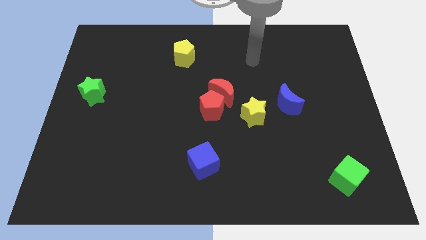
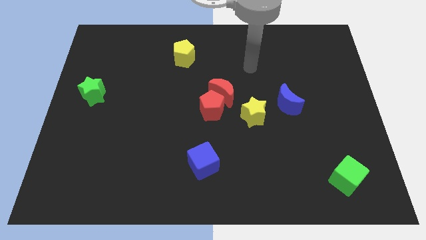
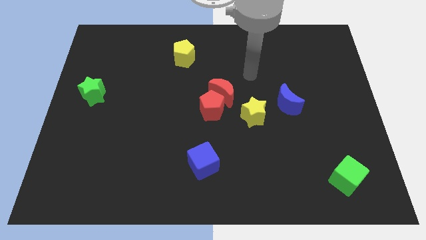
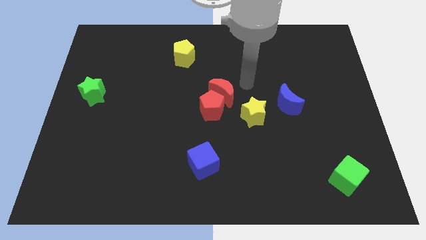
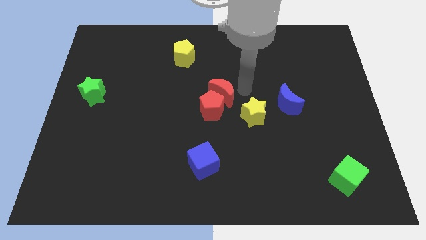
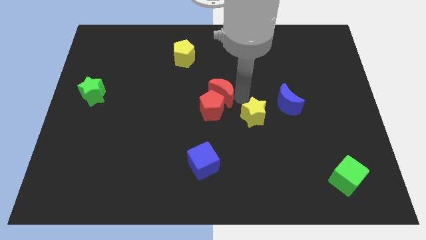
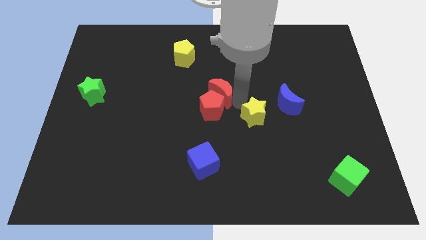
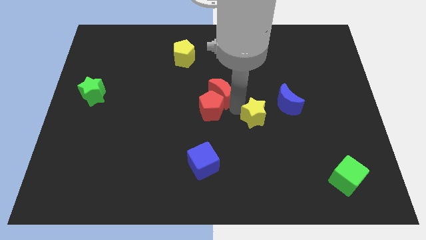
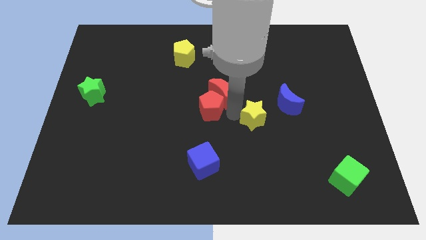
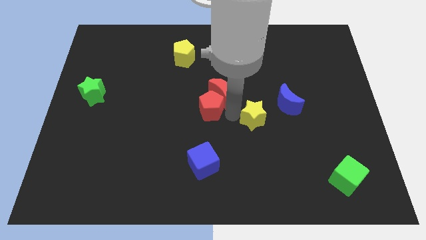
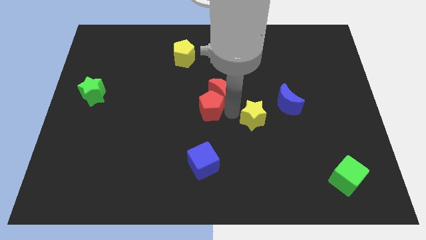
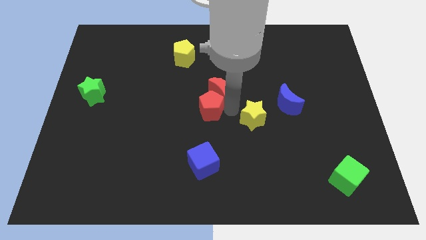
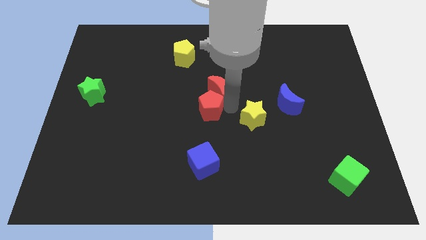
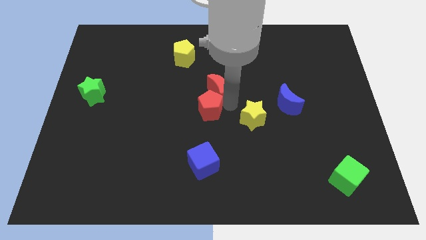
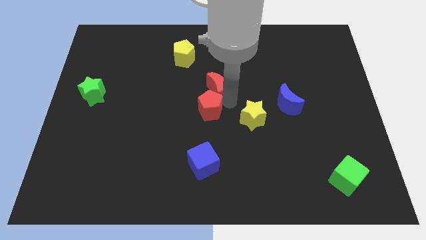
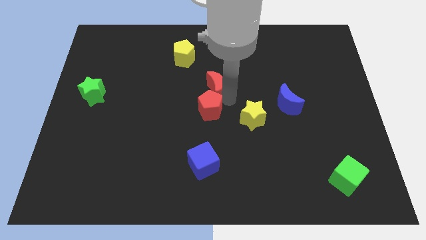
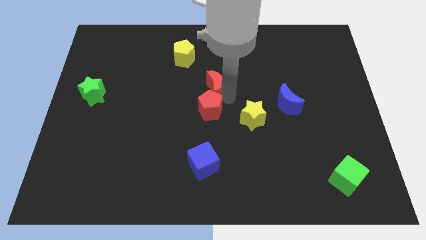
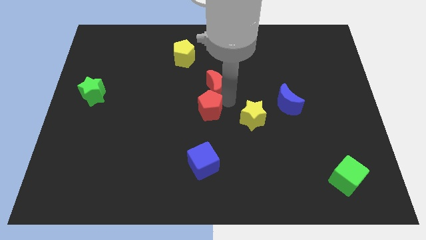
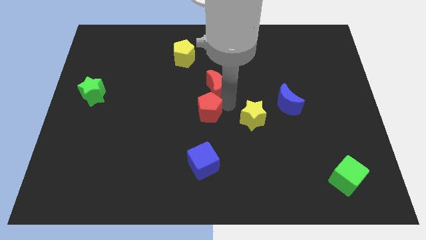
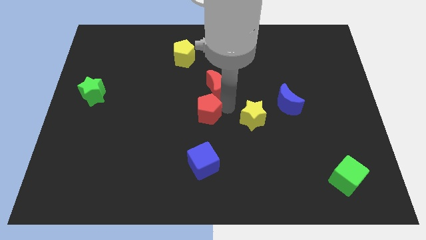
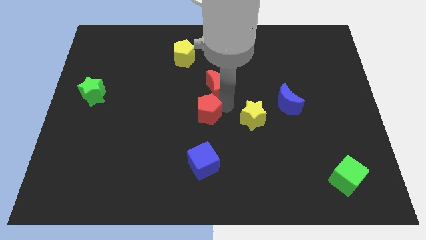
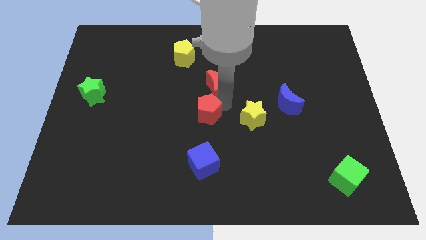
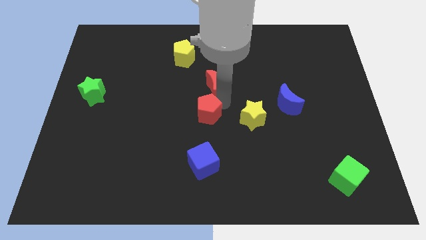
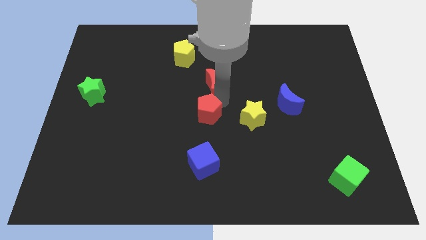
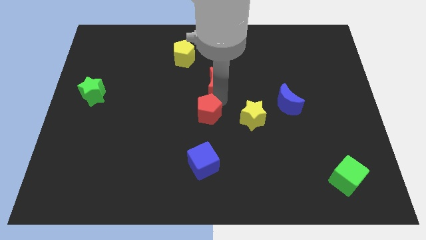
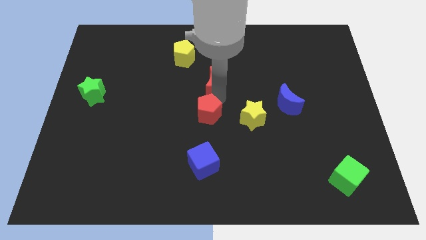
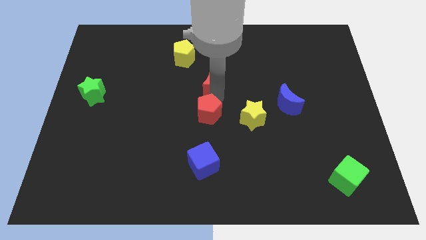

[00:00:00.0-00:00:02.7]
pull the red moon apart from the red pentagon and yellow star

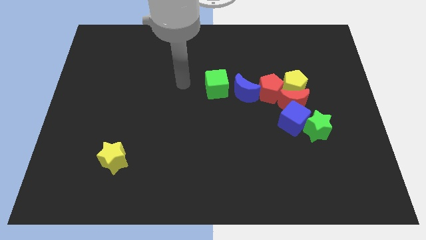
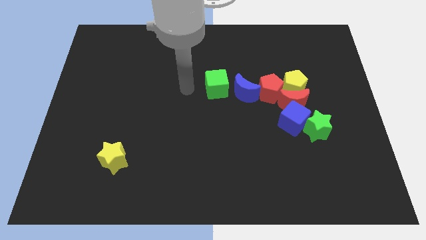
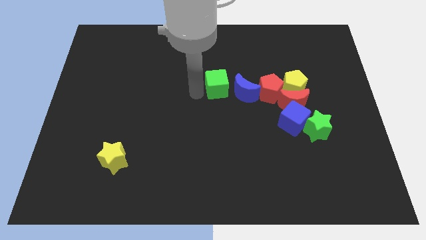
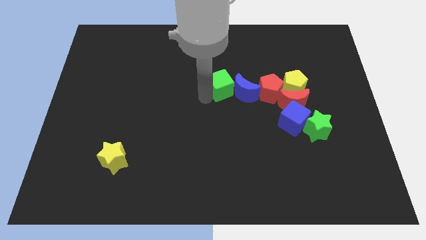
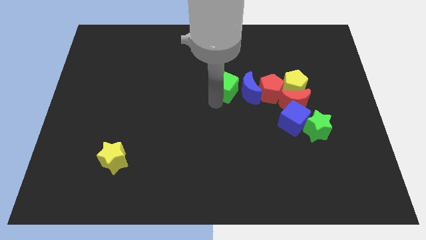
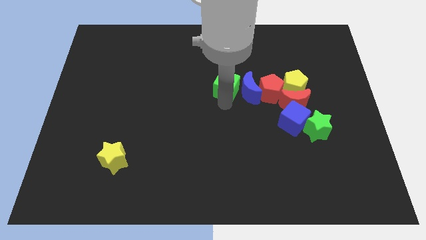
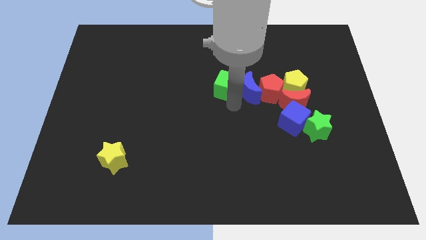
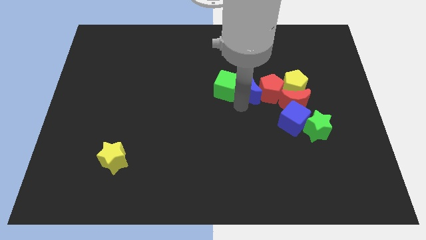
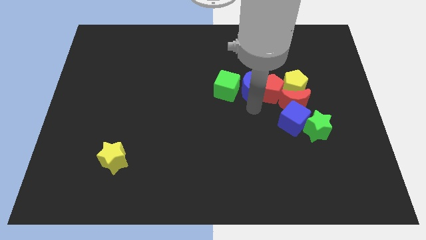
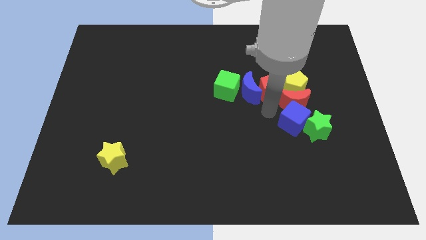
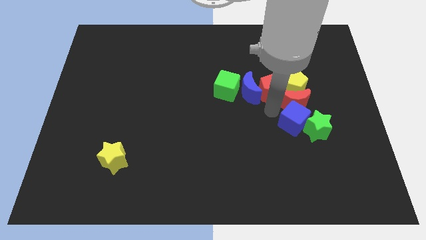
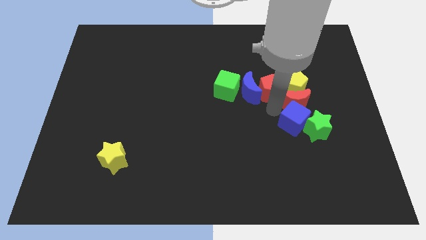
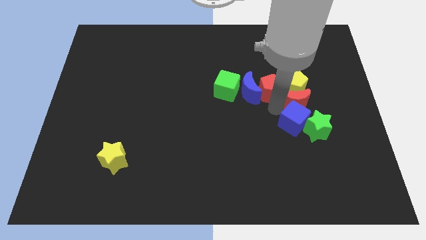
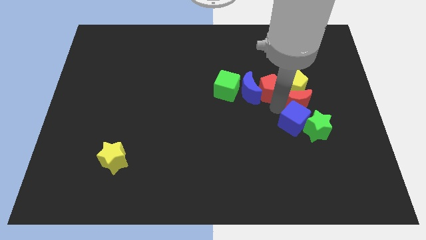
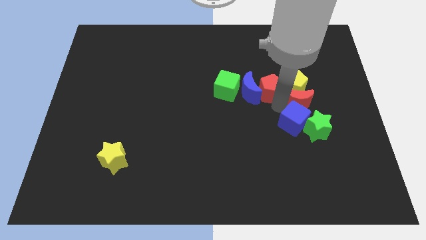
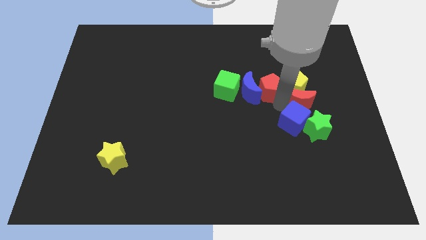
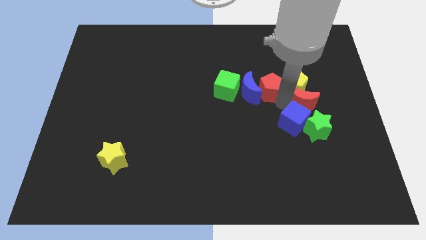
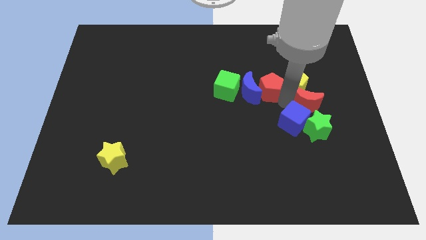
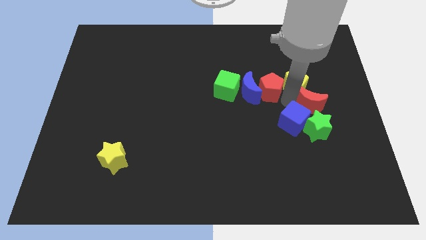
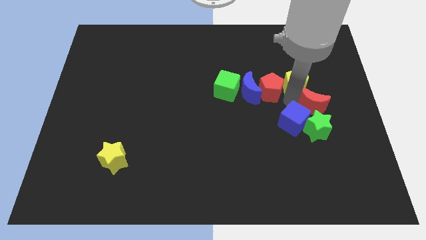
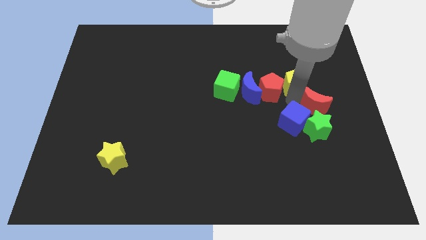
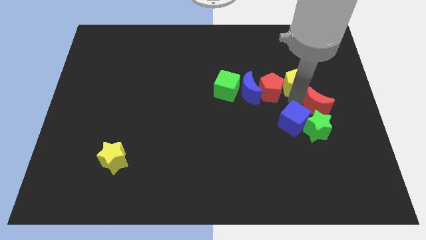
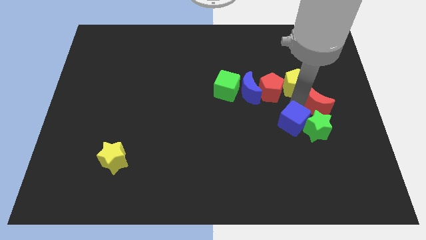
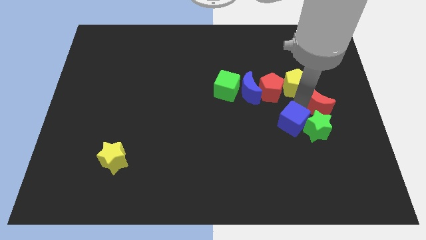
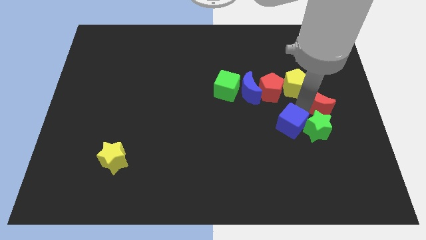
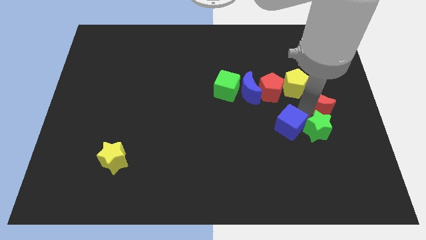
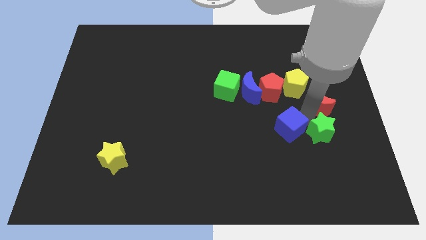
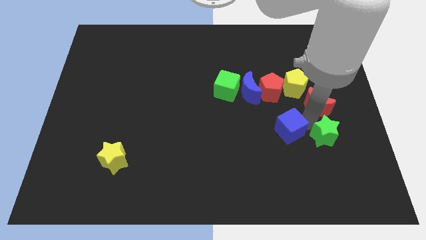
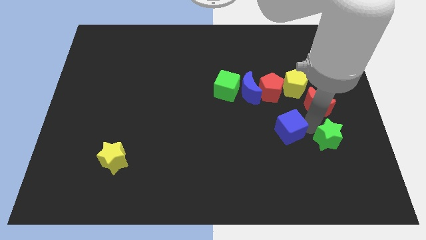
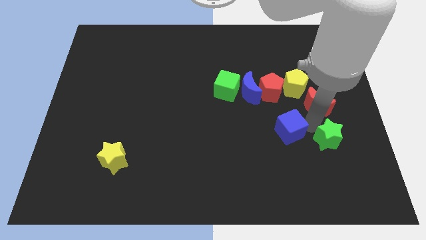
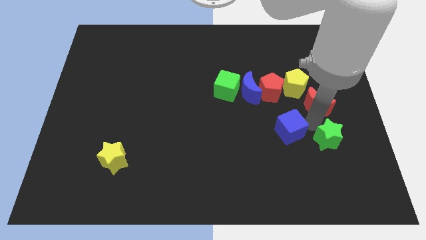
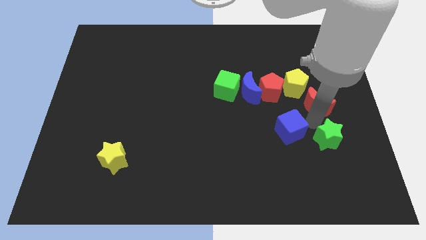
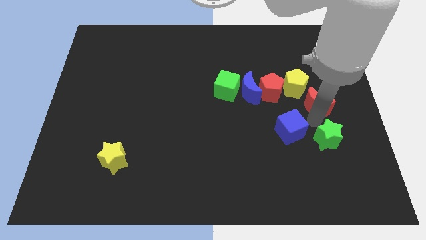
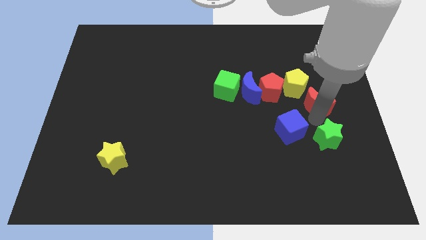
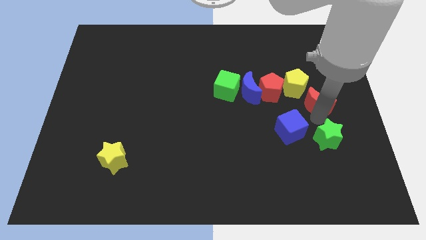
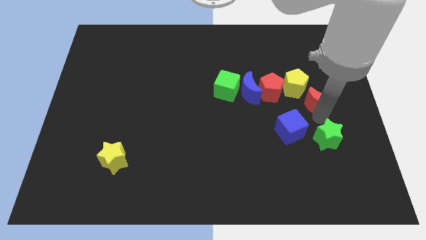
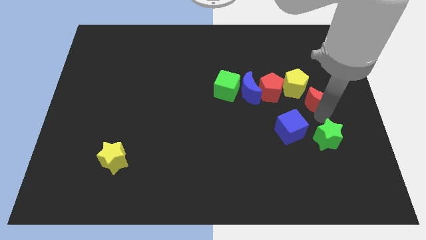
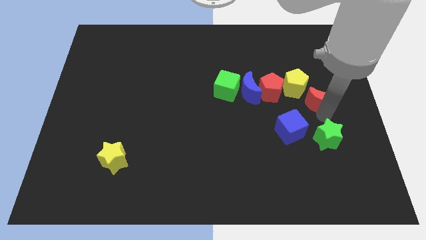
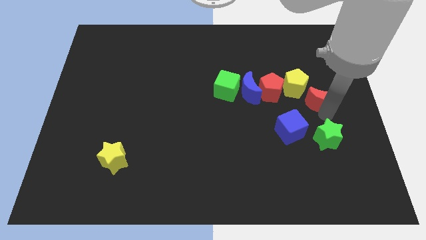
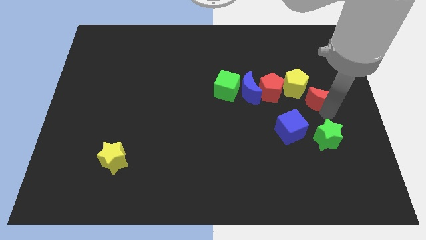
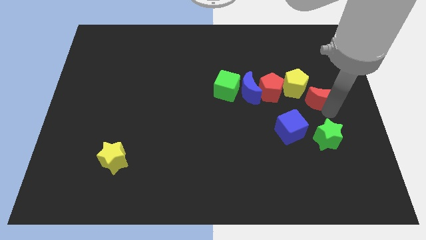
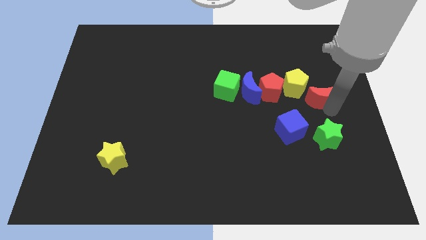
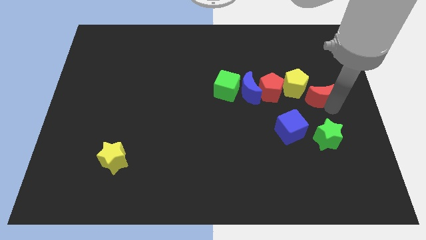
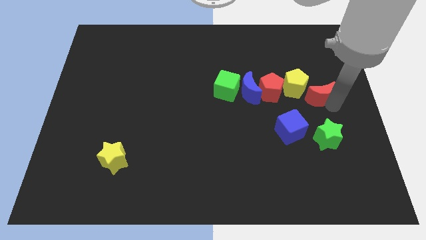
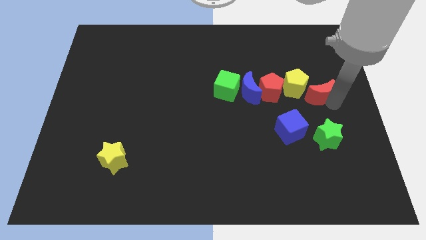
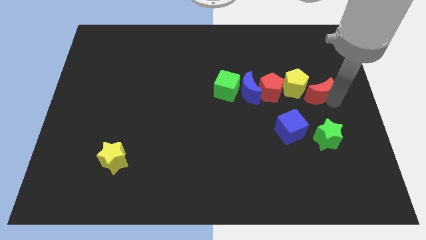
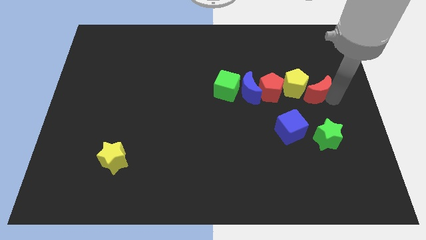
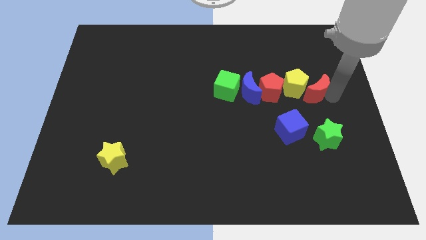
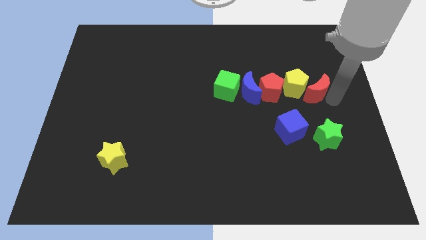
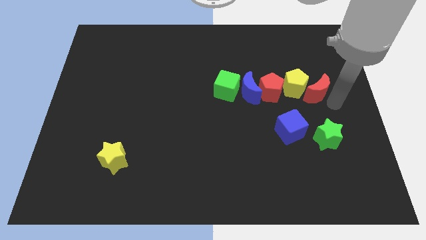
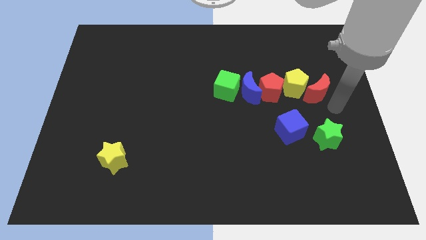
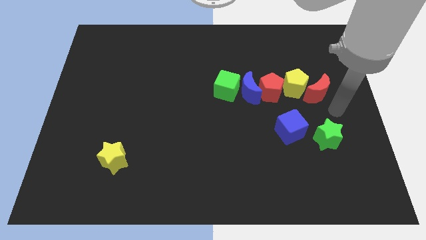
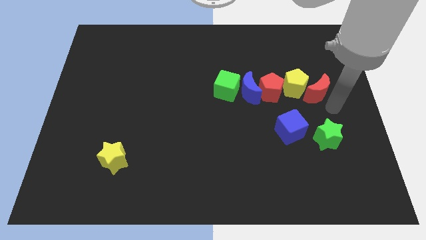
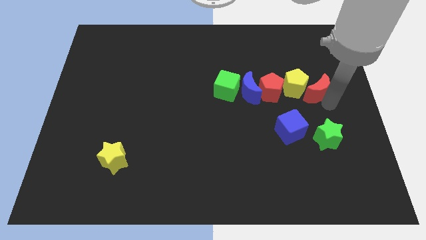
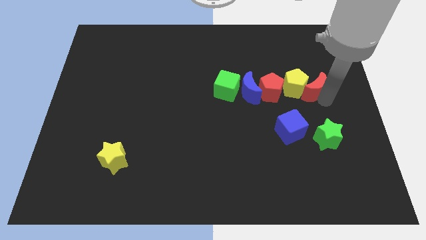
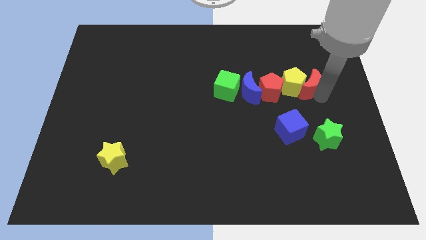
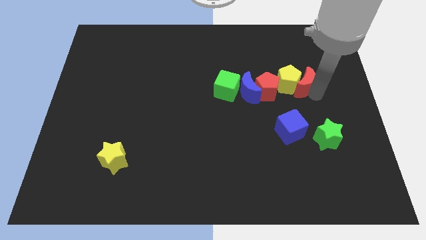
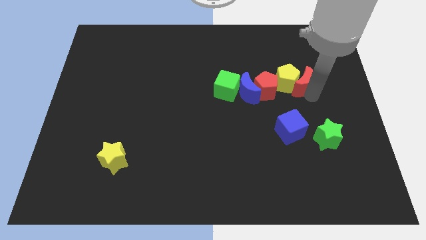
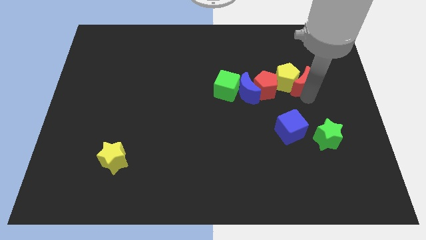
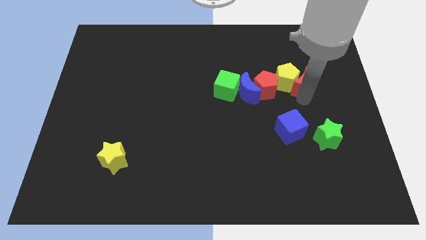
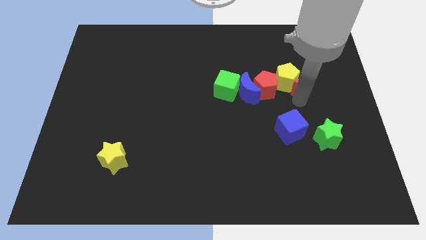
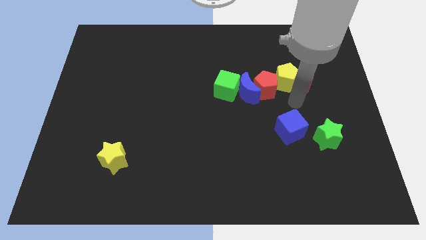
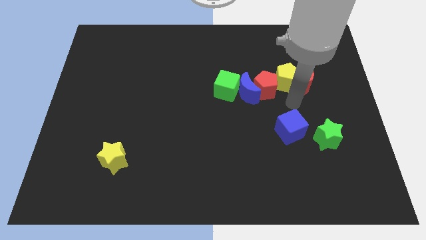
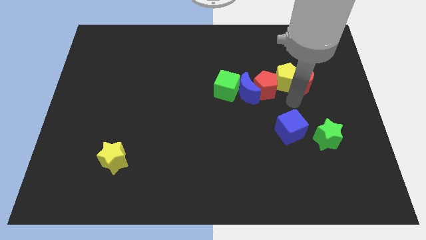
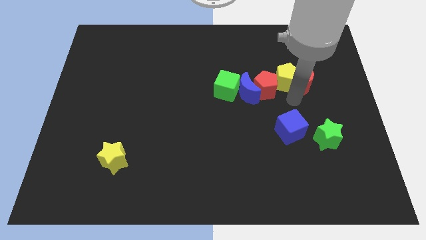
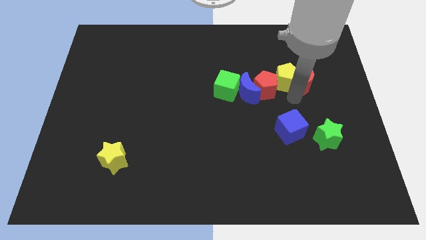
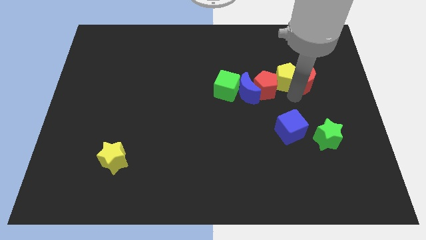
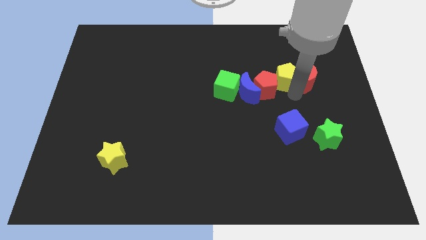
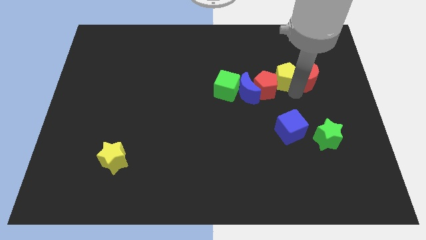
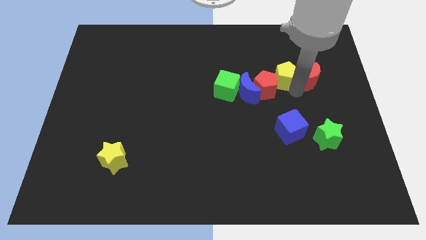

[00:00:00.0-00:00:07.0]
separate the red moon from the clump
